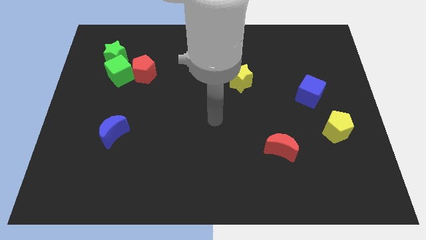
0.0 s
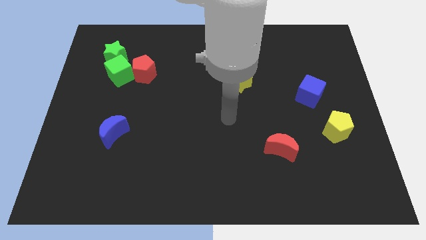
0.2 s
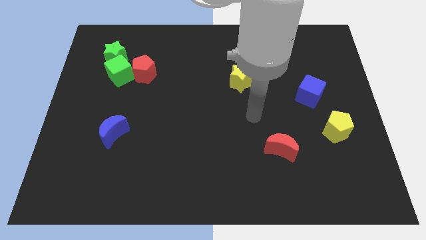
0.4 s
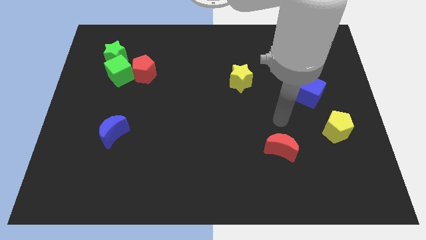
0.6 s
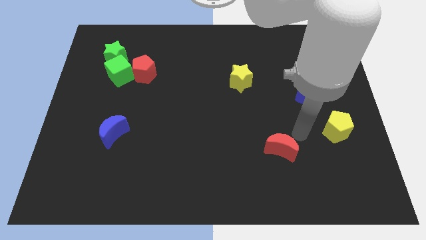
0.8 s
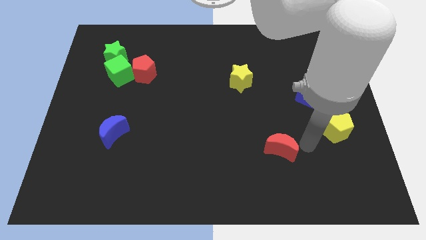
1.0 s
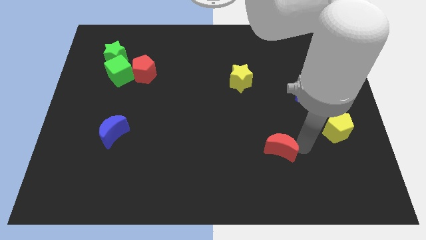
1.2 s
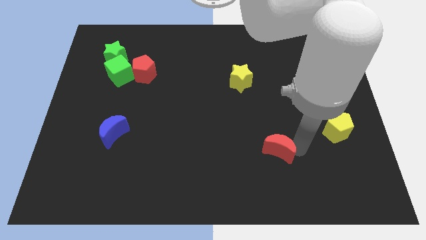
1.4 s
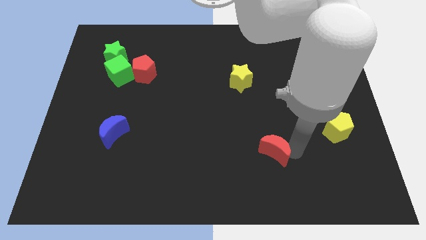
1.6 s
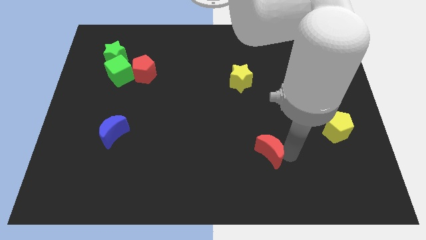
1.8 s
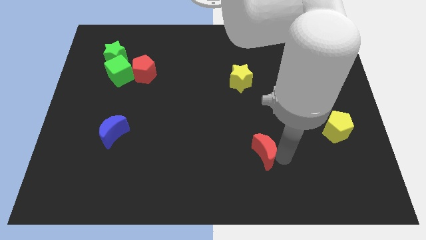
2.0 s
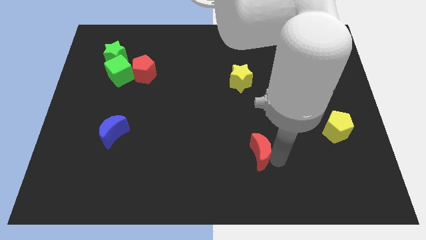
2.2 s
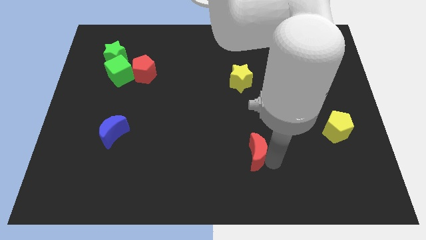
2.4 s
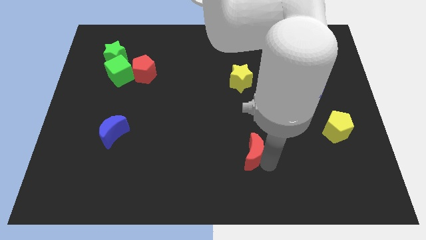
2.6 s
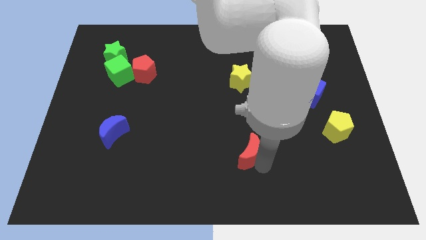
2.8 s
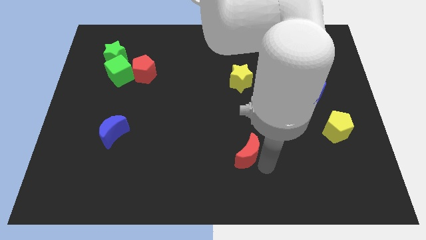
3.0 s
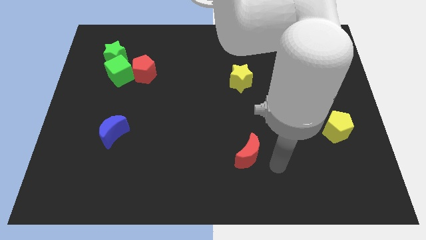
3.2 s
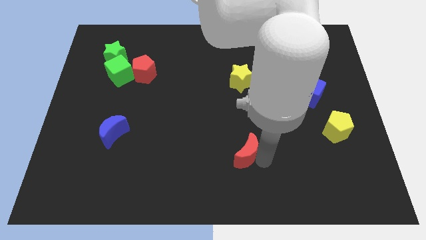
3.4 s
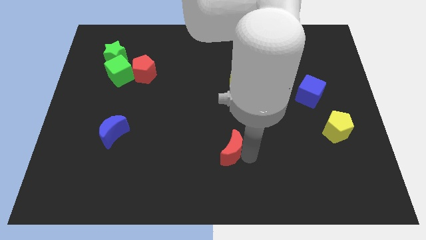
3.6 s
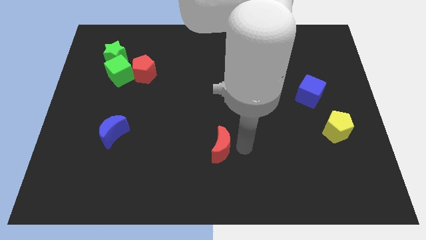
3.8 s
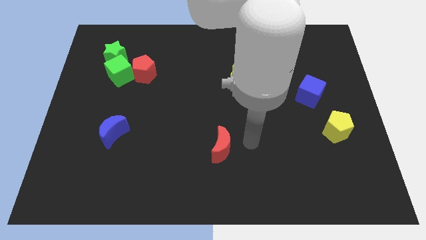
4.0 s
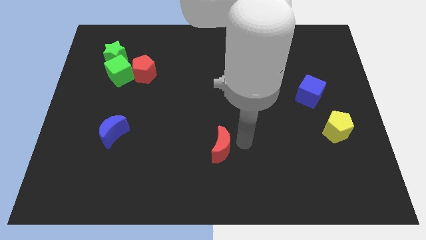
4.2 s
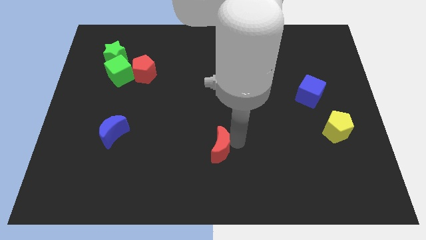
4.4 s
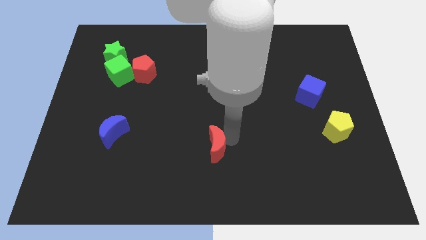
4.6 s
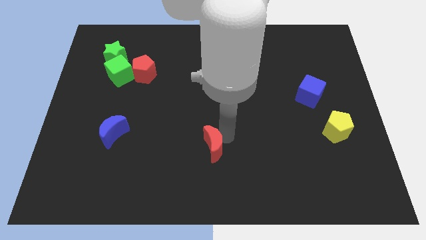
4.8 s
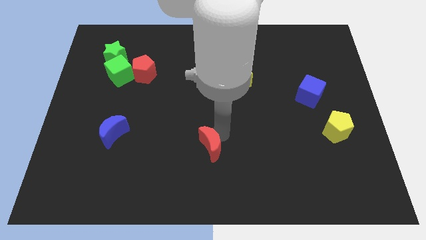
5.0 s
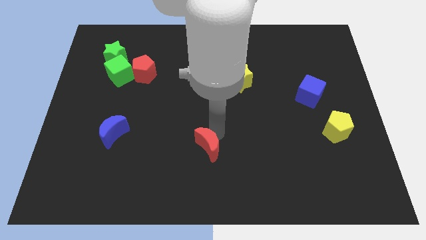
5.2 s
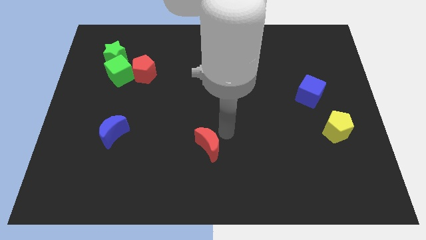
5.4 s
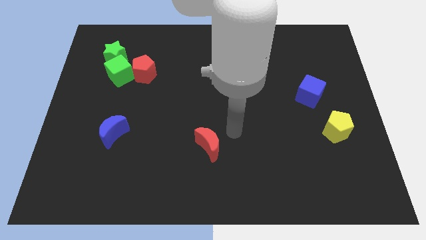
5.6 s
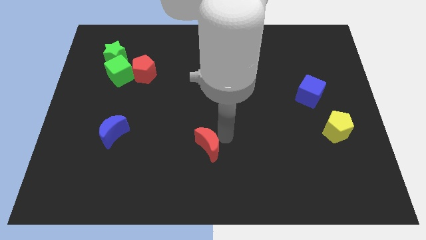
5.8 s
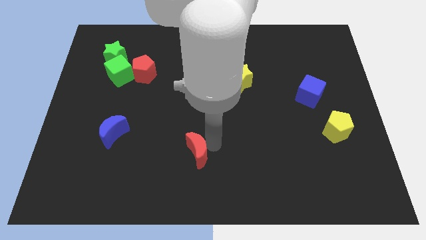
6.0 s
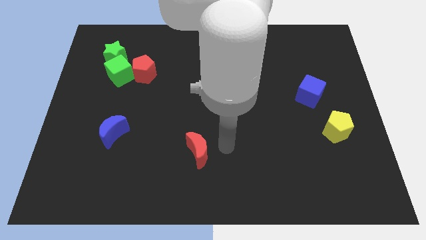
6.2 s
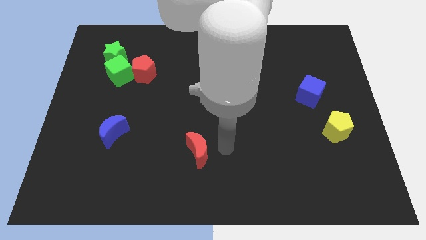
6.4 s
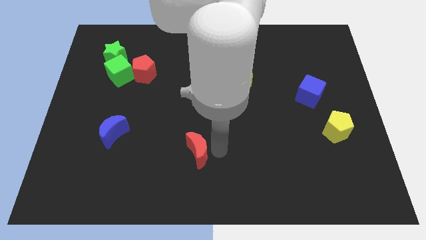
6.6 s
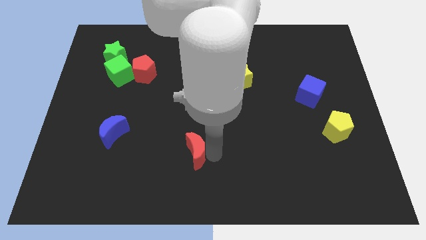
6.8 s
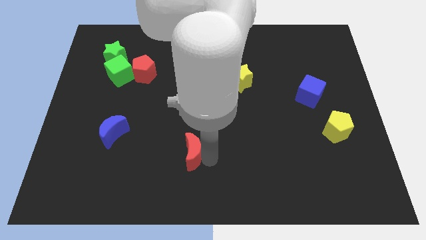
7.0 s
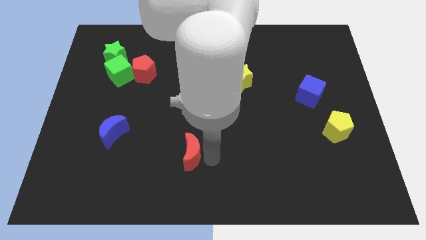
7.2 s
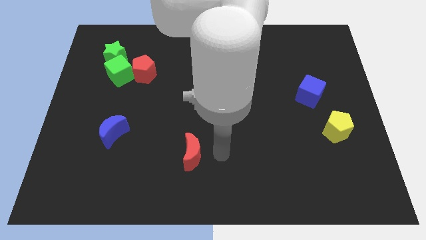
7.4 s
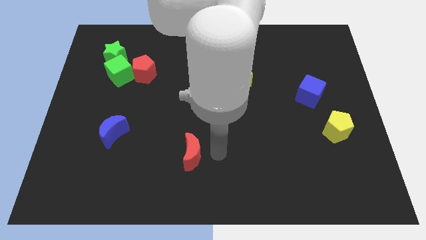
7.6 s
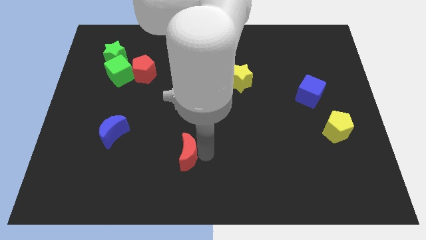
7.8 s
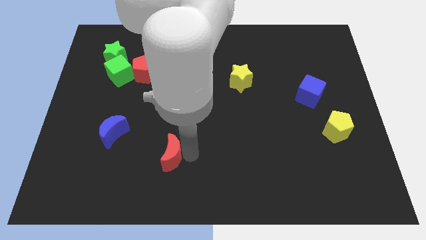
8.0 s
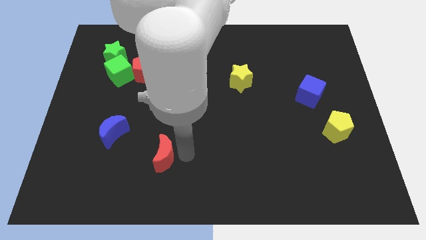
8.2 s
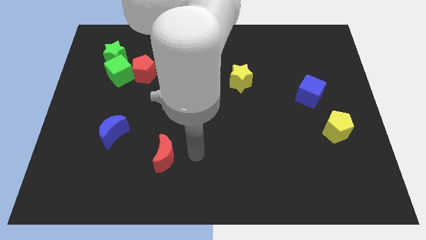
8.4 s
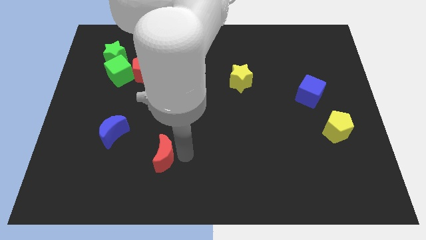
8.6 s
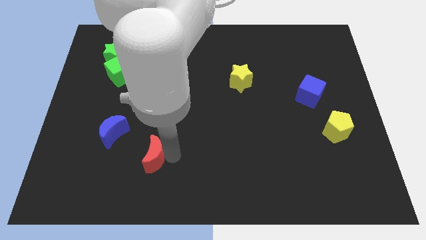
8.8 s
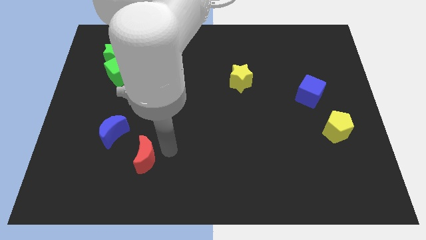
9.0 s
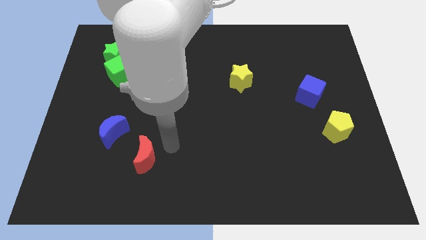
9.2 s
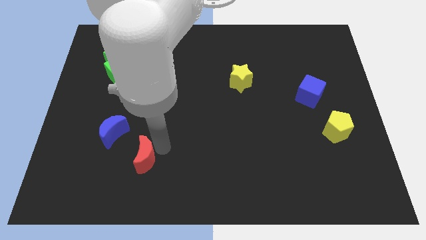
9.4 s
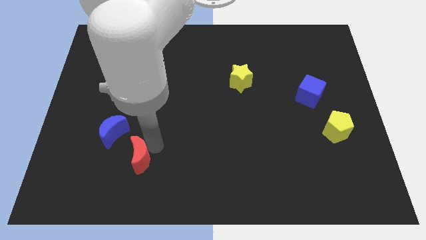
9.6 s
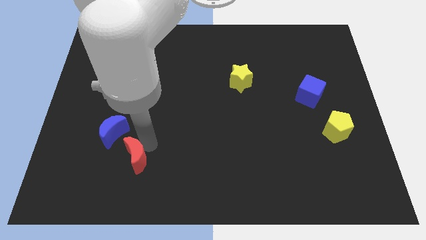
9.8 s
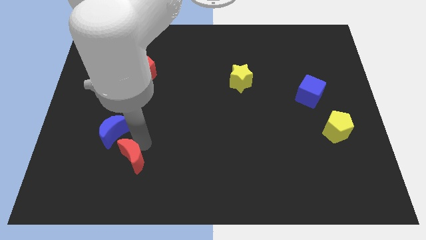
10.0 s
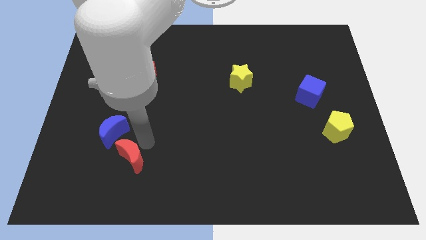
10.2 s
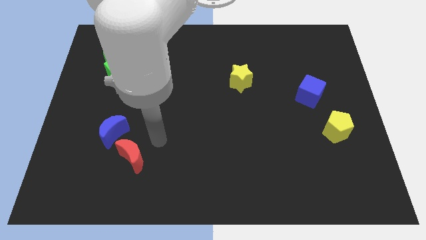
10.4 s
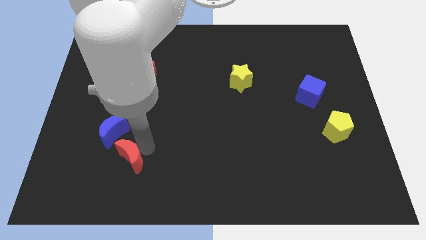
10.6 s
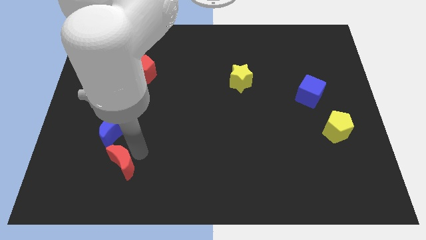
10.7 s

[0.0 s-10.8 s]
push the red moon to the bottom side of the blue moon

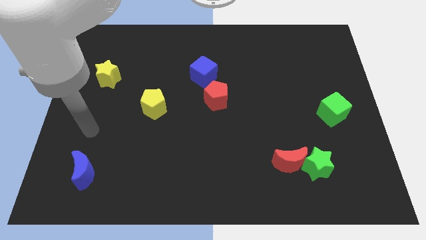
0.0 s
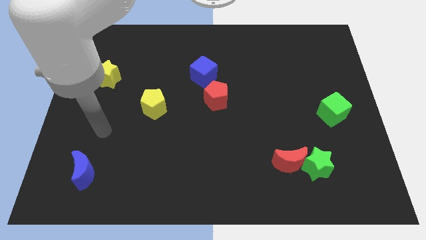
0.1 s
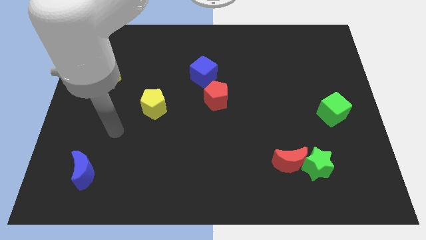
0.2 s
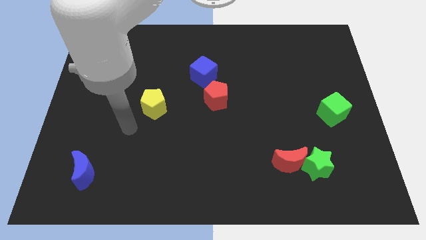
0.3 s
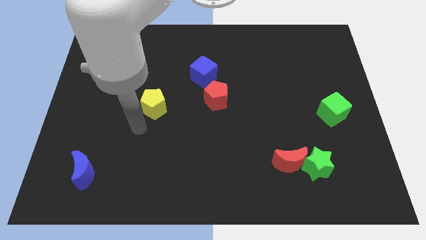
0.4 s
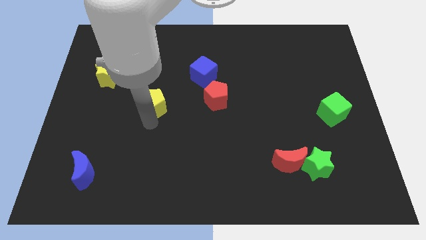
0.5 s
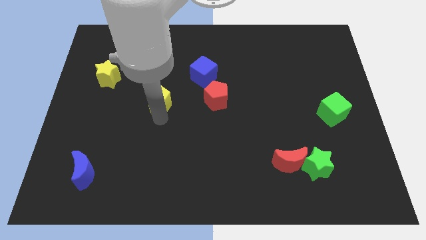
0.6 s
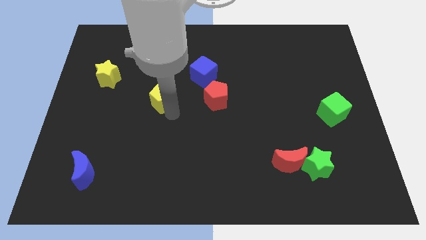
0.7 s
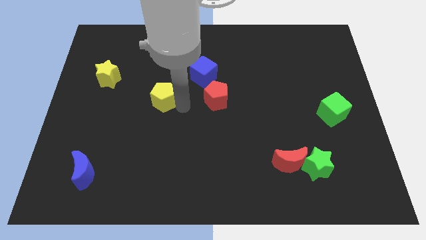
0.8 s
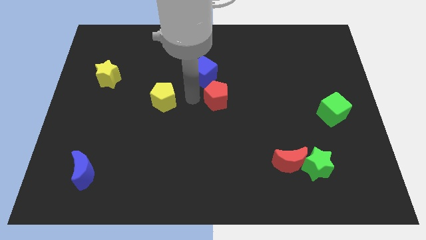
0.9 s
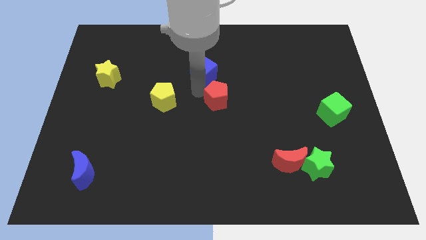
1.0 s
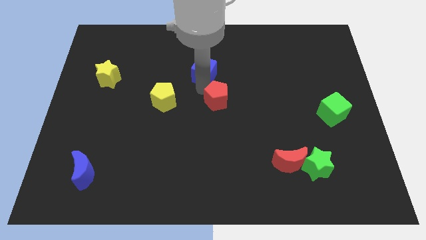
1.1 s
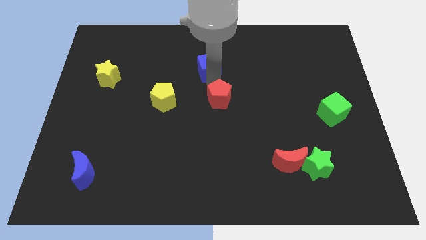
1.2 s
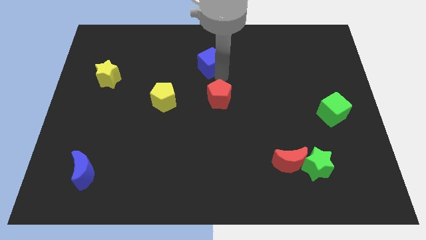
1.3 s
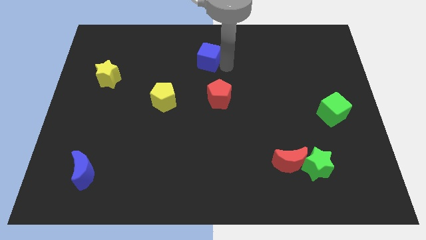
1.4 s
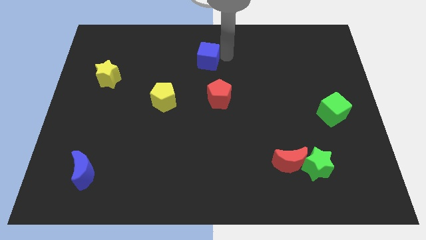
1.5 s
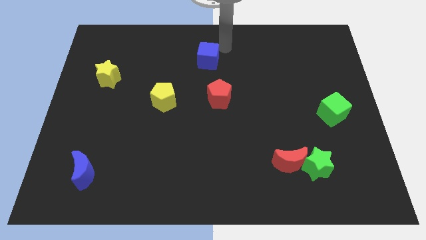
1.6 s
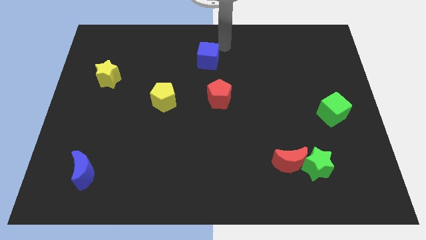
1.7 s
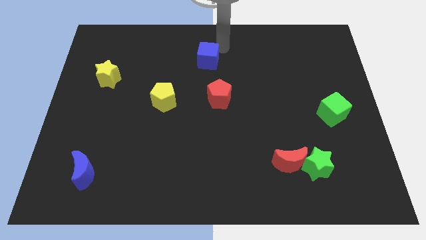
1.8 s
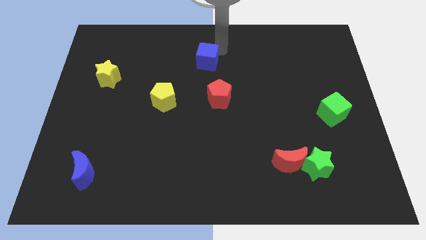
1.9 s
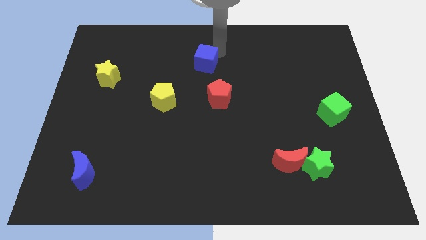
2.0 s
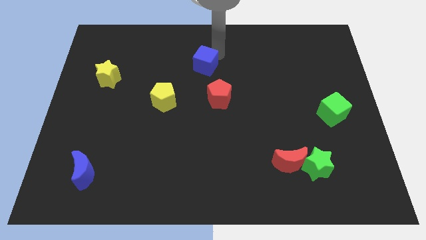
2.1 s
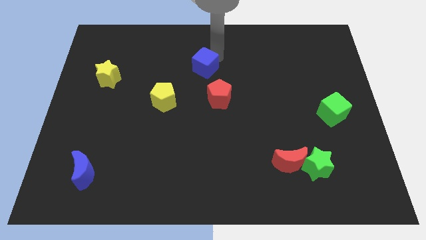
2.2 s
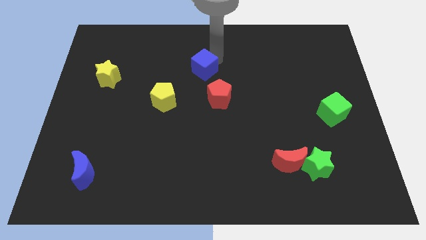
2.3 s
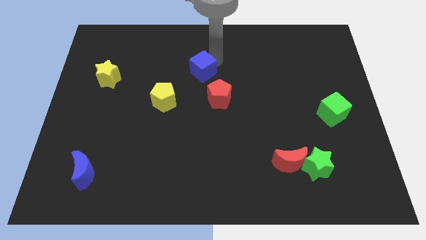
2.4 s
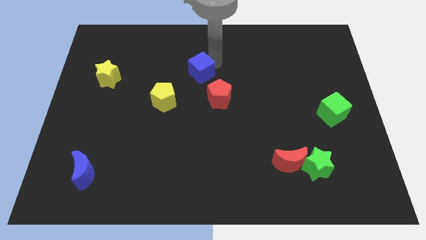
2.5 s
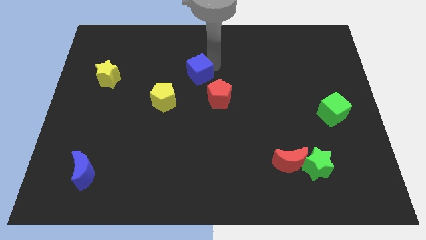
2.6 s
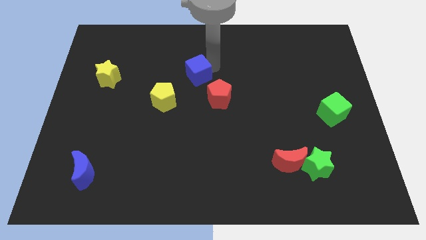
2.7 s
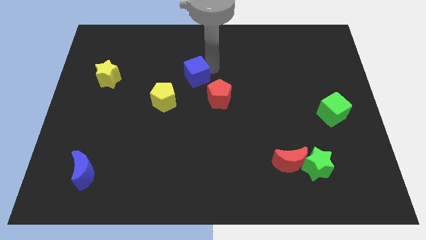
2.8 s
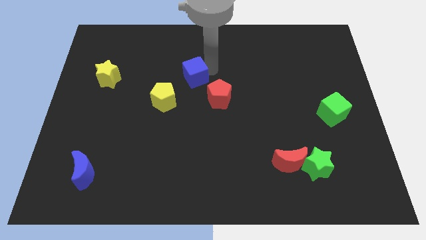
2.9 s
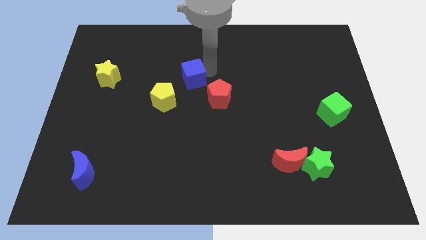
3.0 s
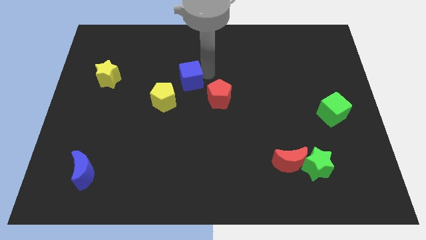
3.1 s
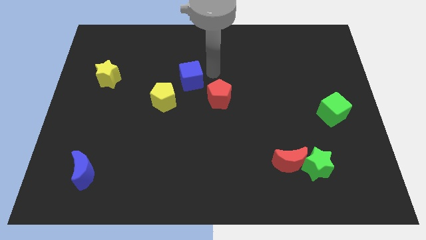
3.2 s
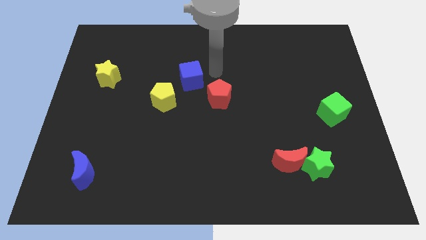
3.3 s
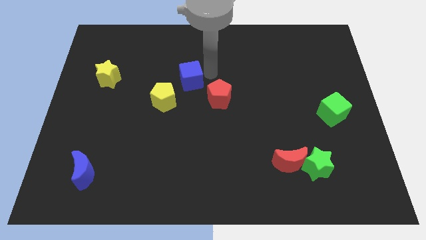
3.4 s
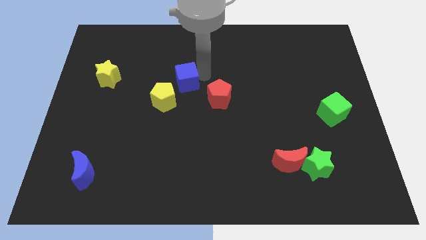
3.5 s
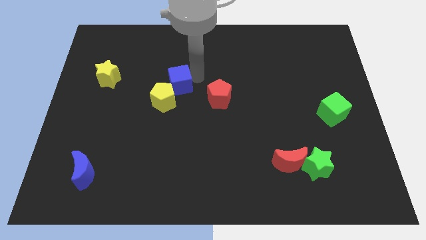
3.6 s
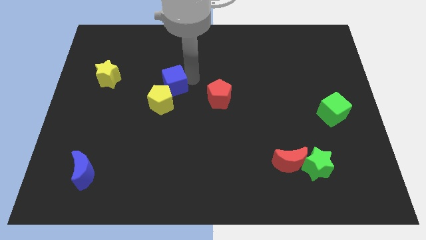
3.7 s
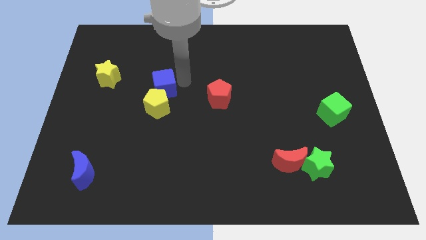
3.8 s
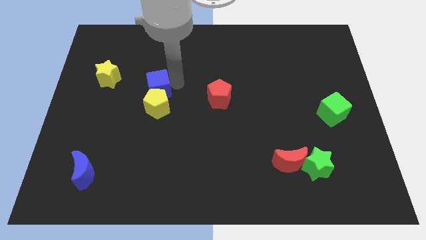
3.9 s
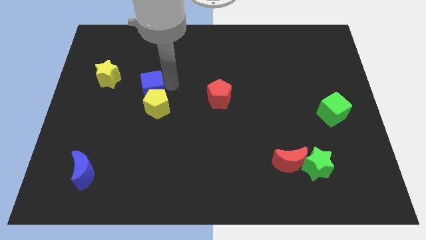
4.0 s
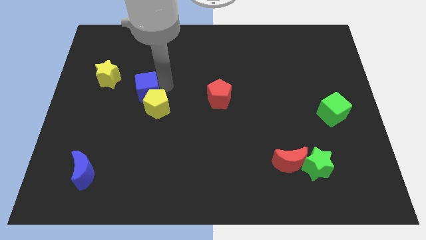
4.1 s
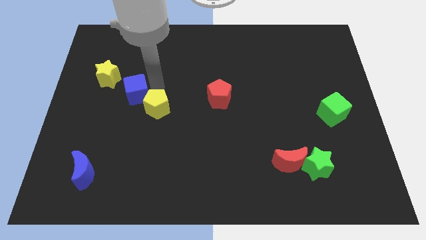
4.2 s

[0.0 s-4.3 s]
move the blue cube to the left side of the yellow pentagon
